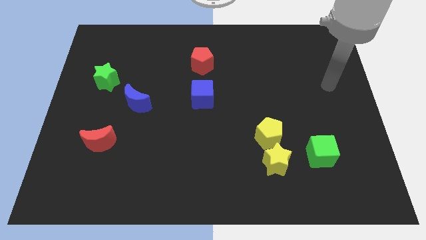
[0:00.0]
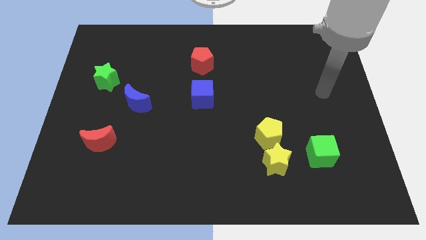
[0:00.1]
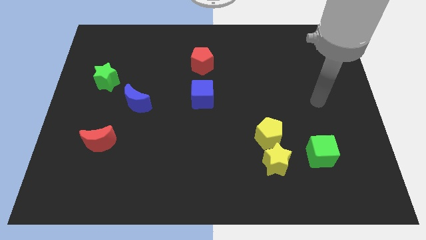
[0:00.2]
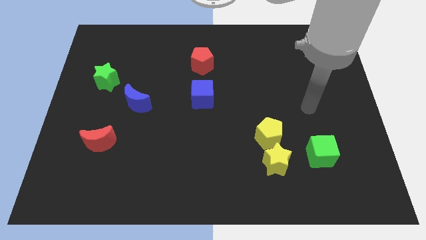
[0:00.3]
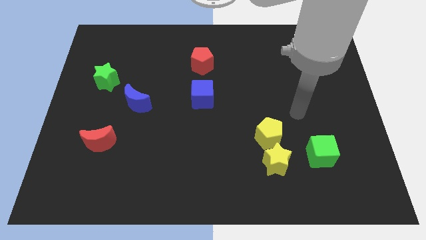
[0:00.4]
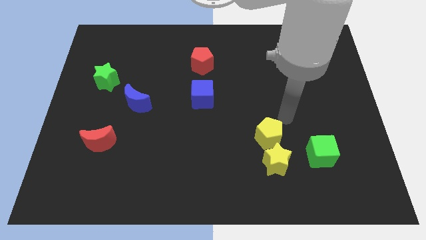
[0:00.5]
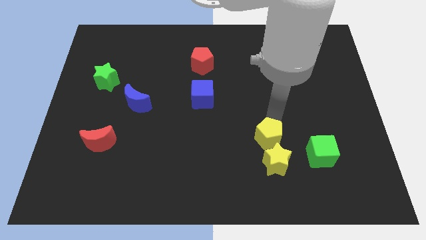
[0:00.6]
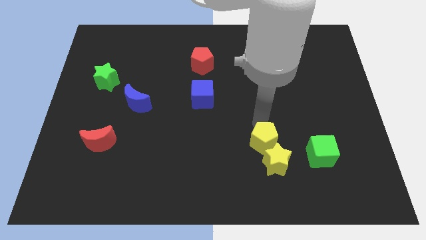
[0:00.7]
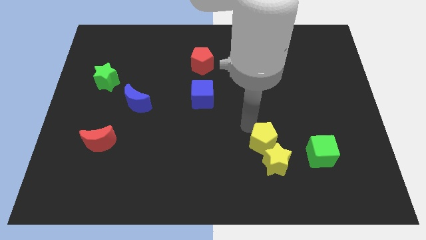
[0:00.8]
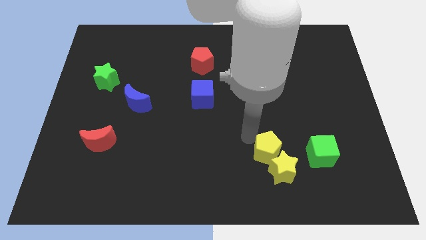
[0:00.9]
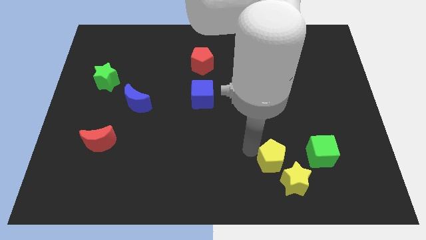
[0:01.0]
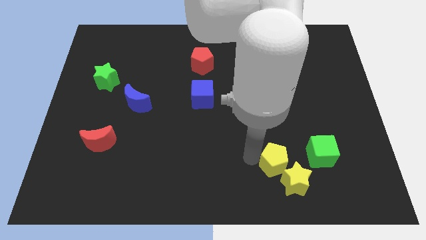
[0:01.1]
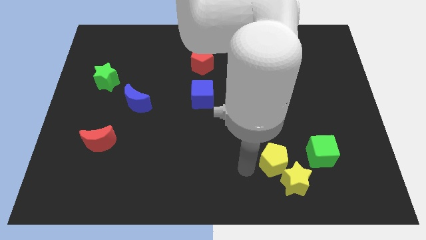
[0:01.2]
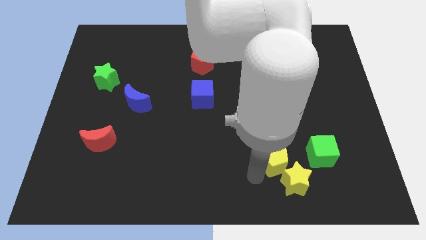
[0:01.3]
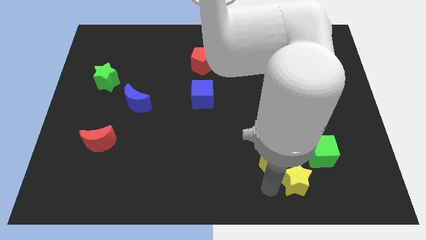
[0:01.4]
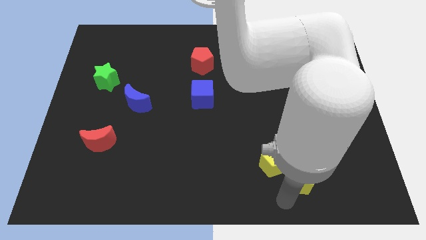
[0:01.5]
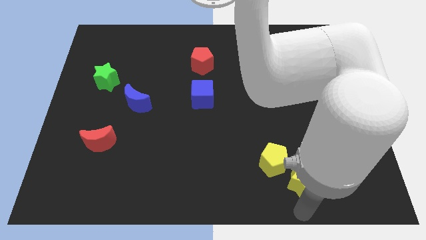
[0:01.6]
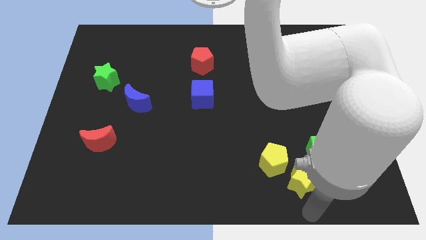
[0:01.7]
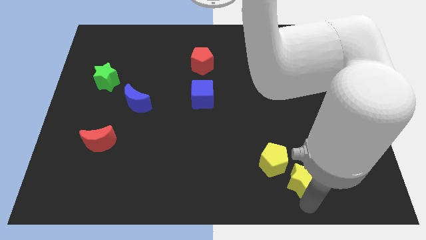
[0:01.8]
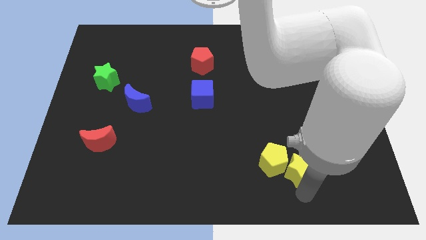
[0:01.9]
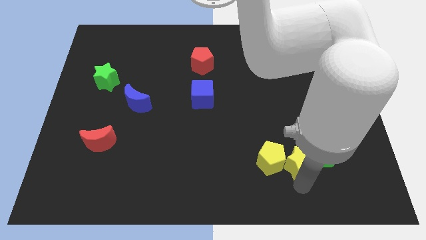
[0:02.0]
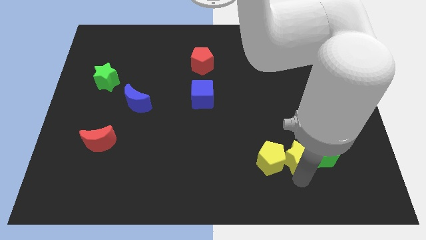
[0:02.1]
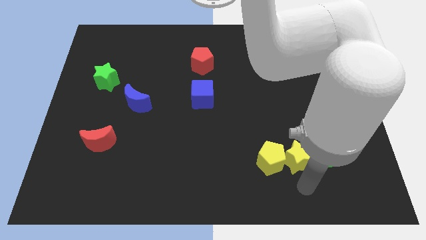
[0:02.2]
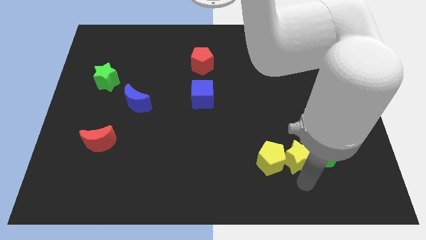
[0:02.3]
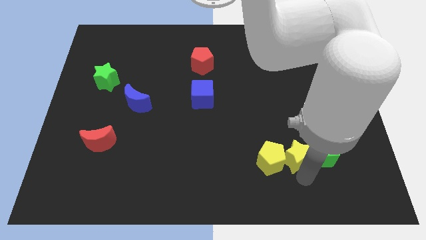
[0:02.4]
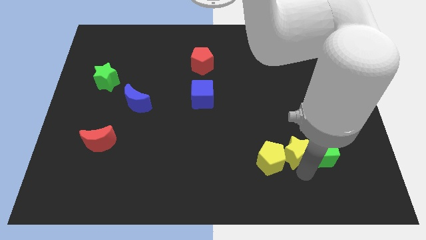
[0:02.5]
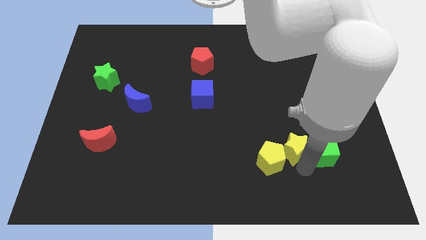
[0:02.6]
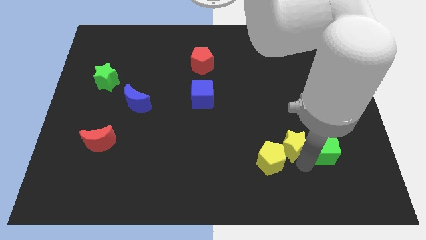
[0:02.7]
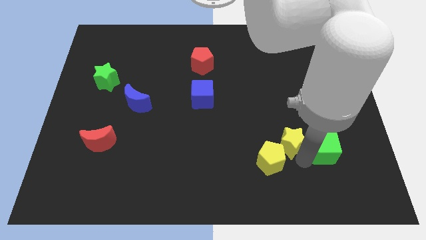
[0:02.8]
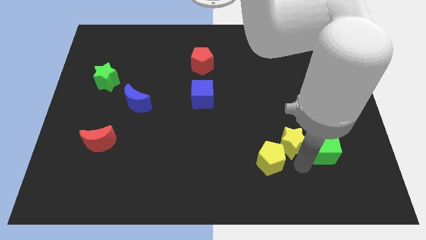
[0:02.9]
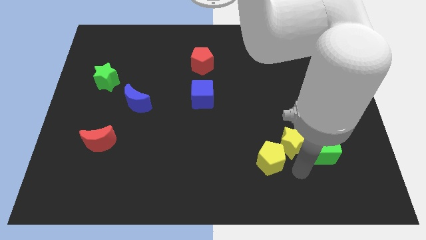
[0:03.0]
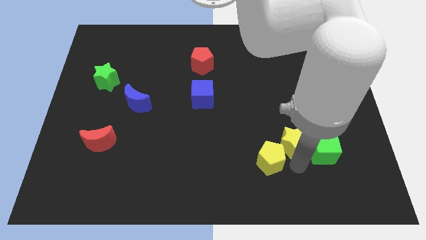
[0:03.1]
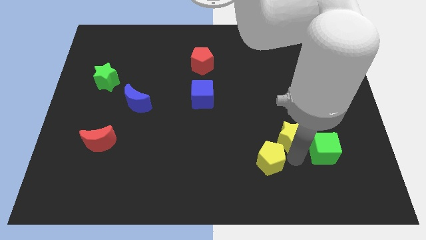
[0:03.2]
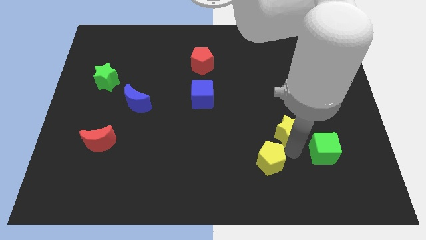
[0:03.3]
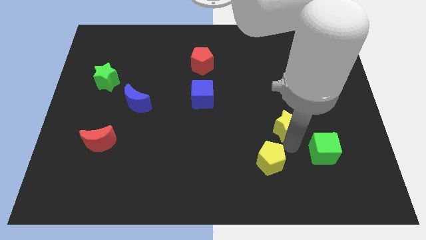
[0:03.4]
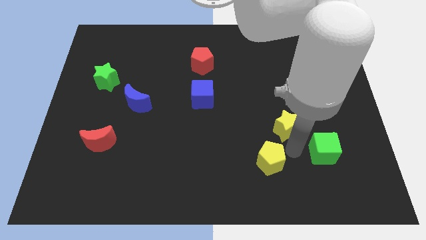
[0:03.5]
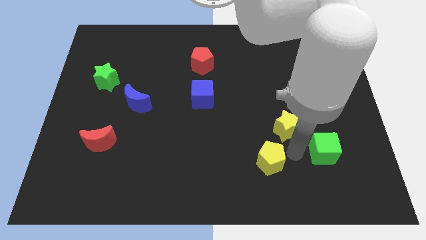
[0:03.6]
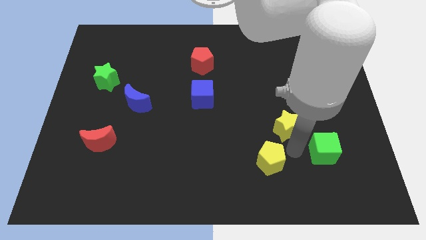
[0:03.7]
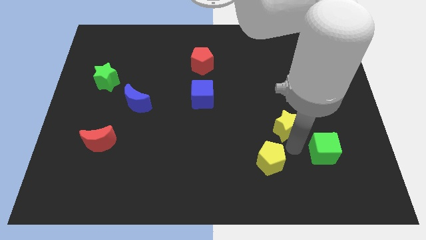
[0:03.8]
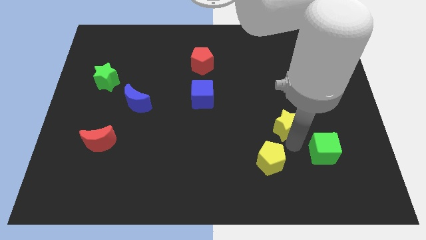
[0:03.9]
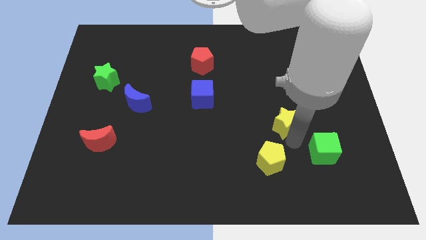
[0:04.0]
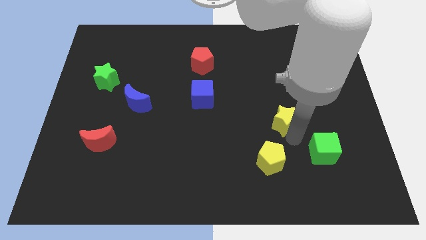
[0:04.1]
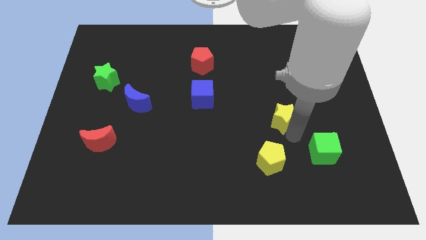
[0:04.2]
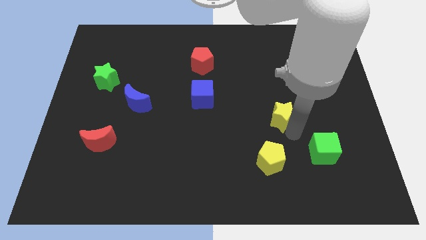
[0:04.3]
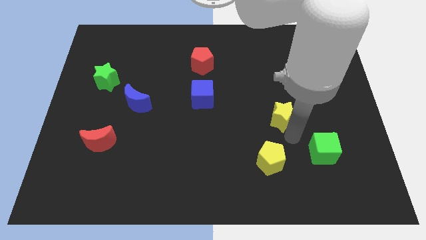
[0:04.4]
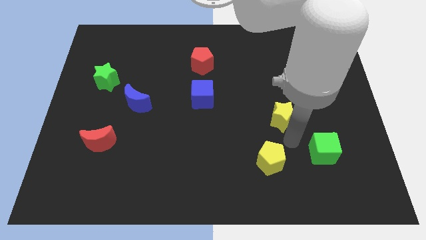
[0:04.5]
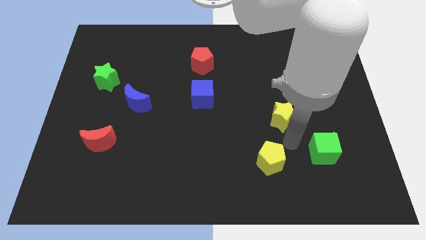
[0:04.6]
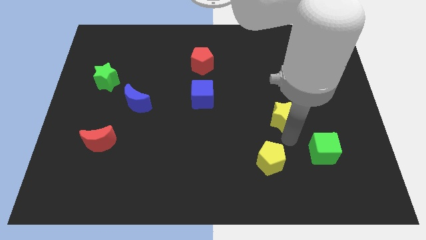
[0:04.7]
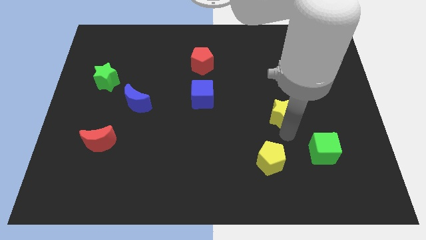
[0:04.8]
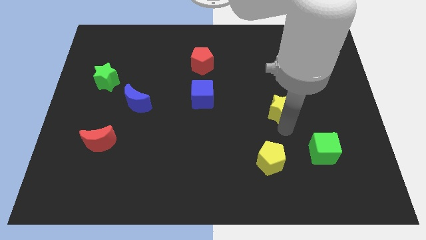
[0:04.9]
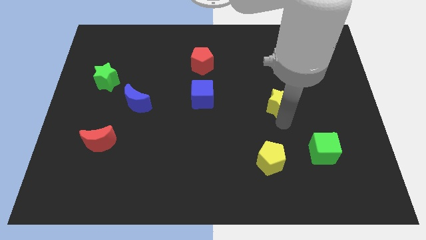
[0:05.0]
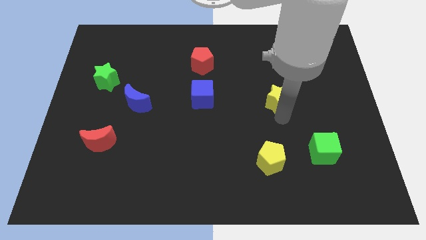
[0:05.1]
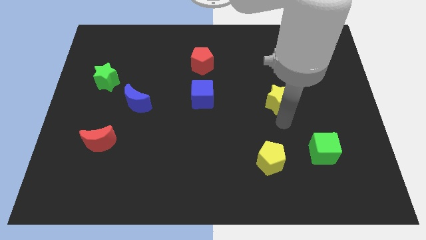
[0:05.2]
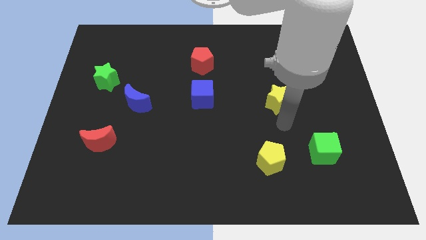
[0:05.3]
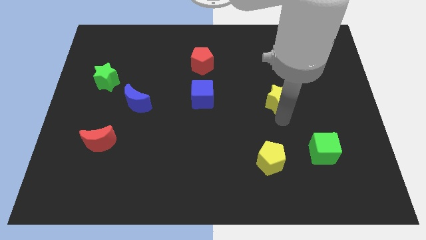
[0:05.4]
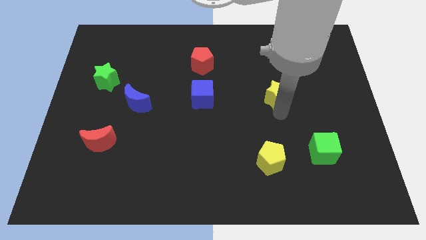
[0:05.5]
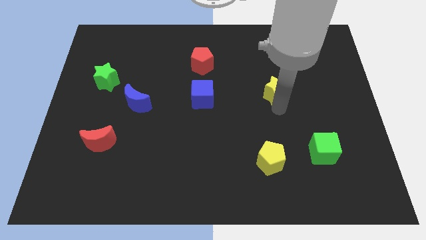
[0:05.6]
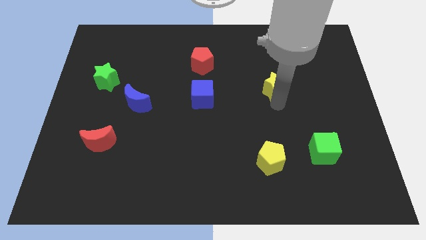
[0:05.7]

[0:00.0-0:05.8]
move the yellow star upwards

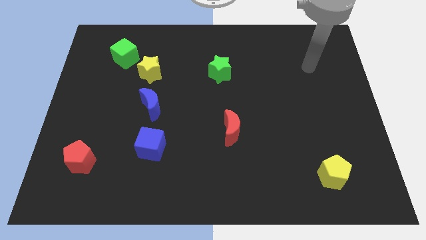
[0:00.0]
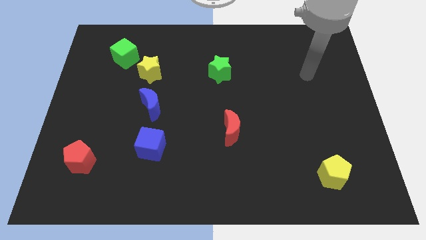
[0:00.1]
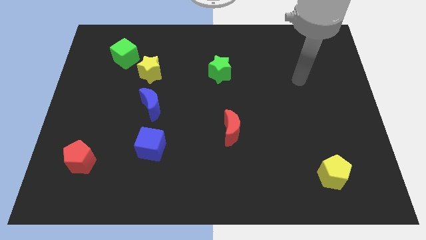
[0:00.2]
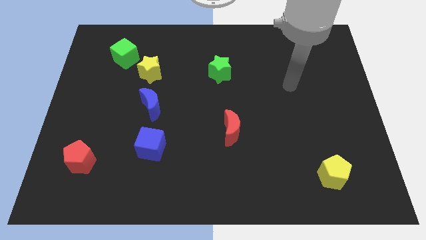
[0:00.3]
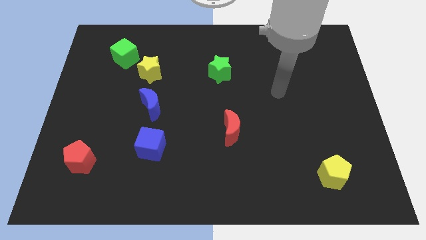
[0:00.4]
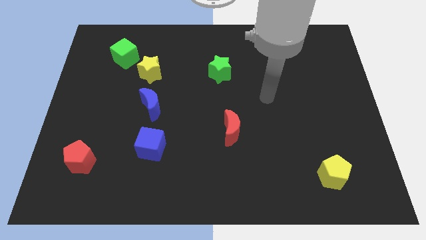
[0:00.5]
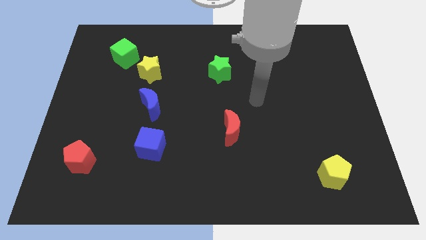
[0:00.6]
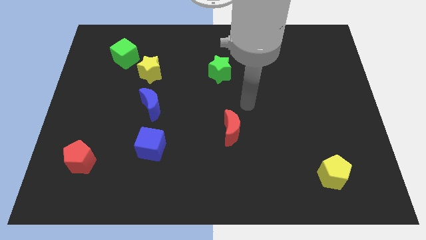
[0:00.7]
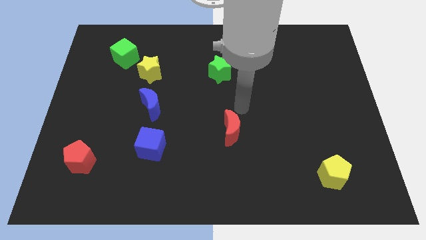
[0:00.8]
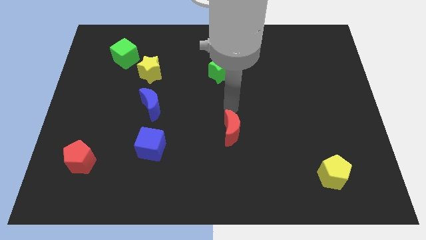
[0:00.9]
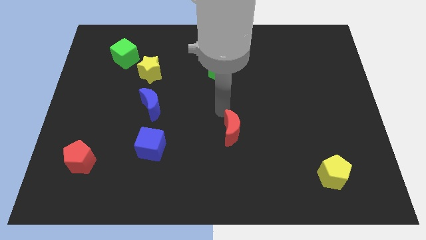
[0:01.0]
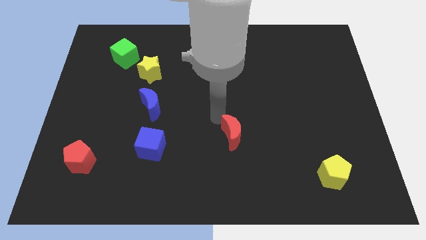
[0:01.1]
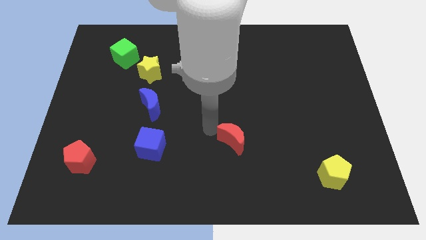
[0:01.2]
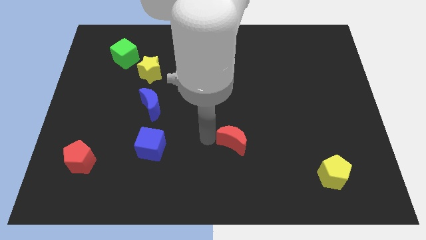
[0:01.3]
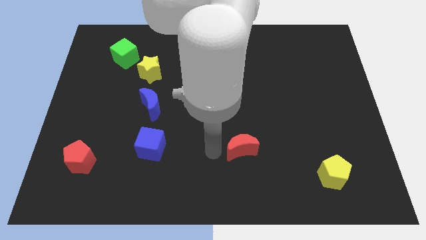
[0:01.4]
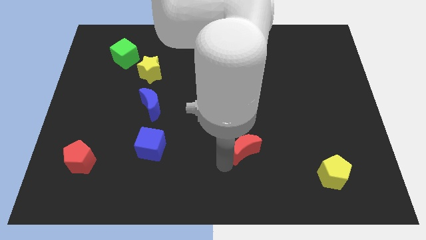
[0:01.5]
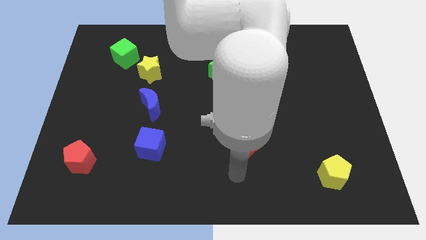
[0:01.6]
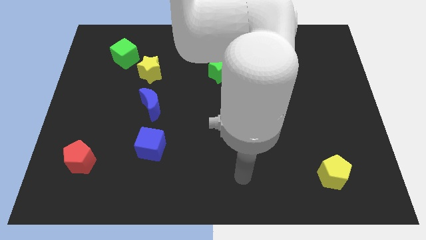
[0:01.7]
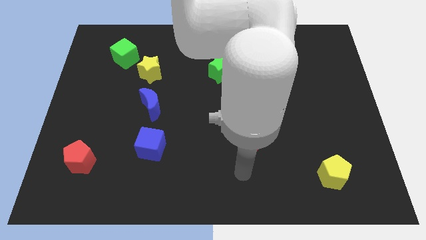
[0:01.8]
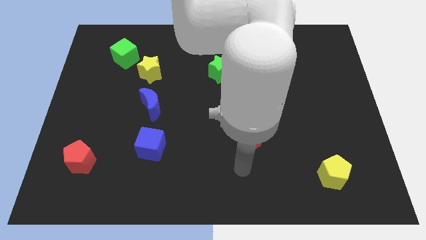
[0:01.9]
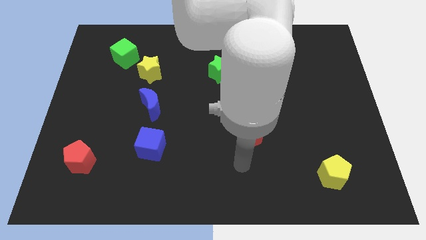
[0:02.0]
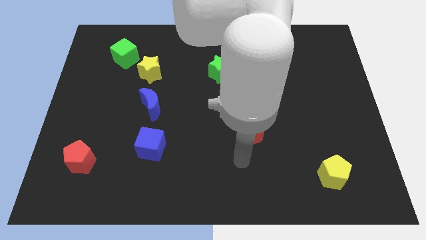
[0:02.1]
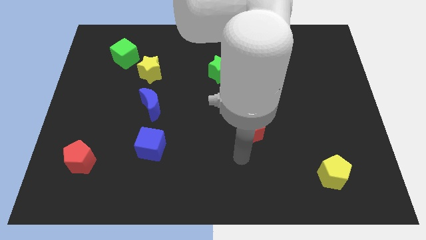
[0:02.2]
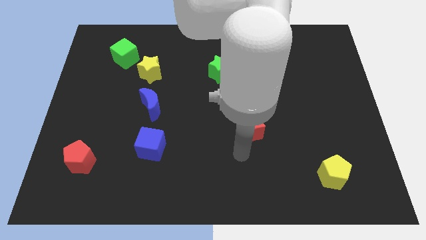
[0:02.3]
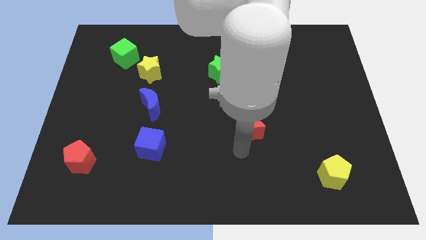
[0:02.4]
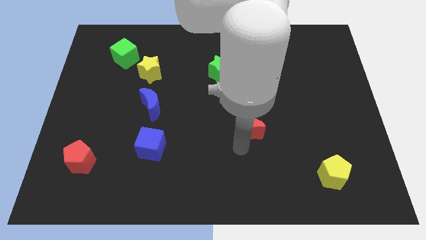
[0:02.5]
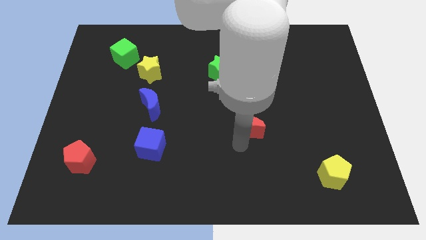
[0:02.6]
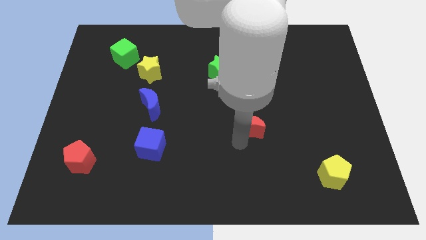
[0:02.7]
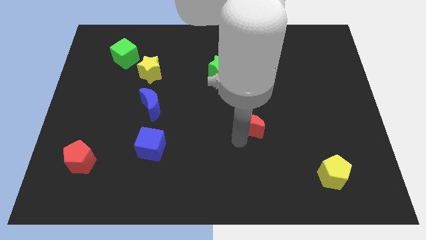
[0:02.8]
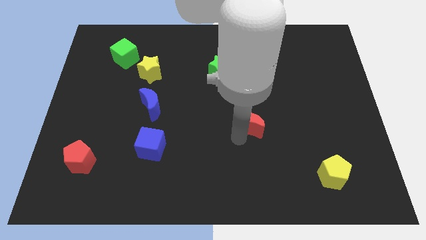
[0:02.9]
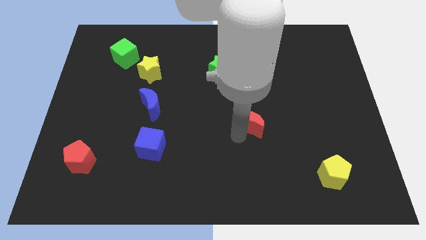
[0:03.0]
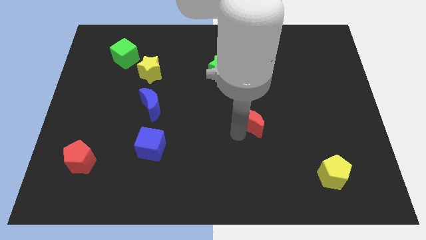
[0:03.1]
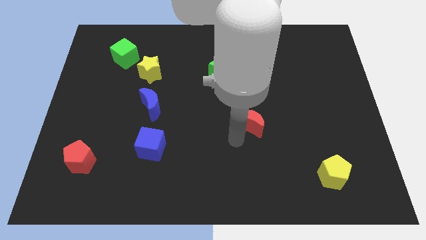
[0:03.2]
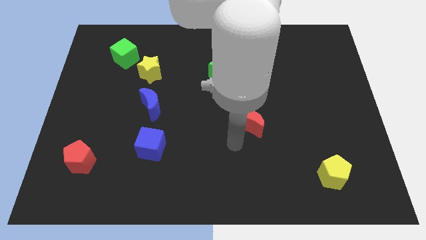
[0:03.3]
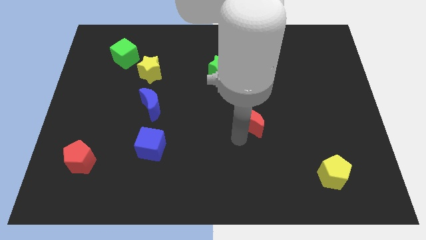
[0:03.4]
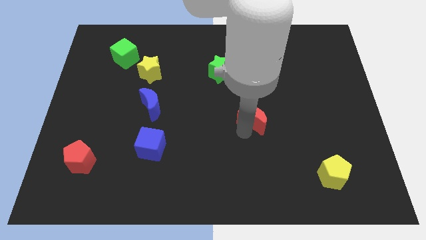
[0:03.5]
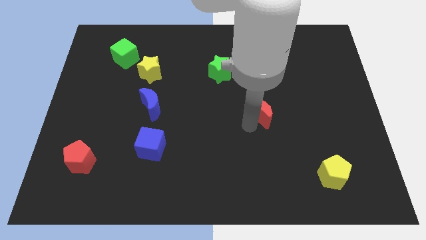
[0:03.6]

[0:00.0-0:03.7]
slightly slide the red moon upwards and right
